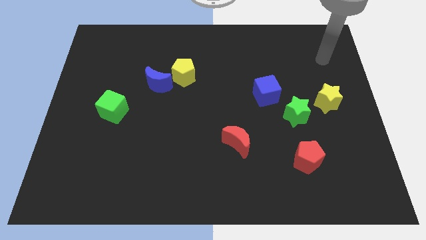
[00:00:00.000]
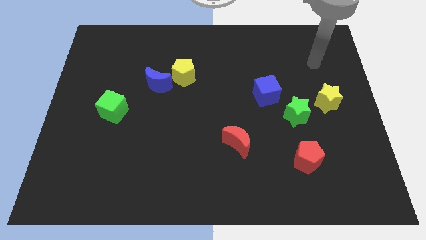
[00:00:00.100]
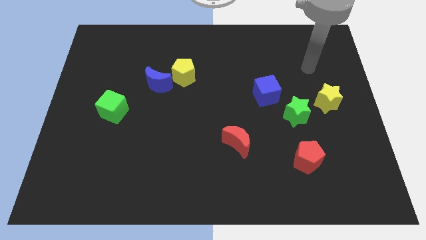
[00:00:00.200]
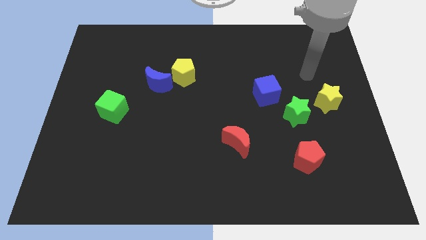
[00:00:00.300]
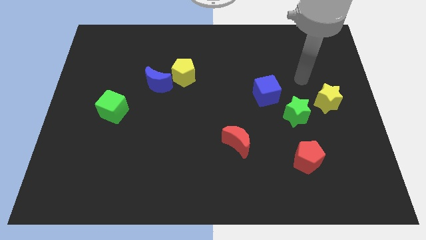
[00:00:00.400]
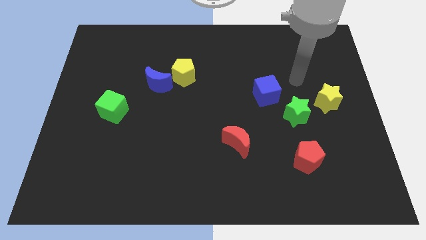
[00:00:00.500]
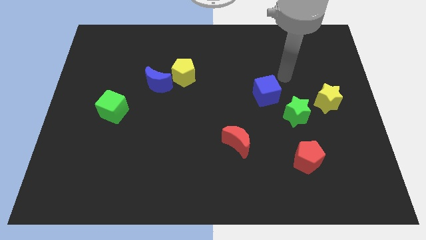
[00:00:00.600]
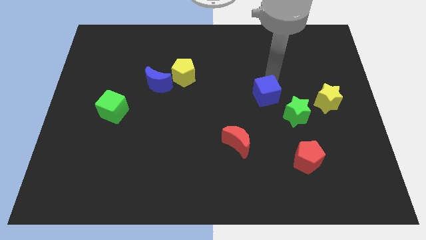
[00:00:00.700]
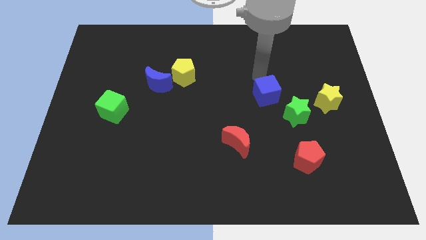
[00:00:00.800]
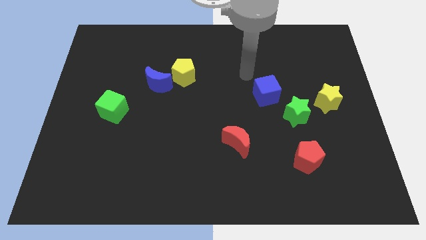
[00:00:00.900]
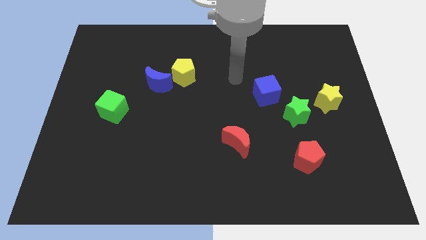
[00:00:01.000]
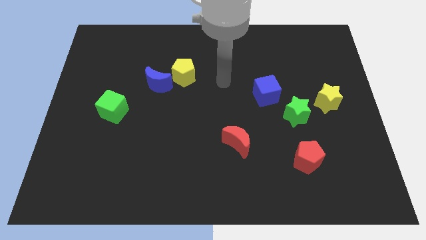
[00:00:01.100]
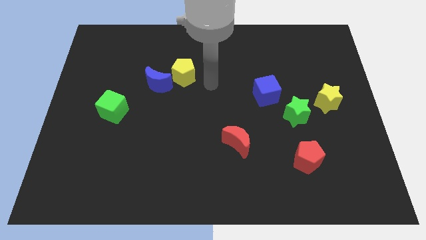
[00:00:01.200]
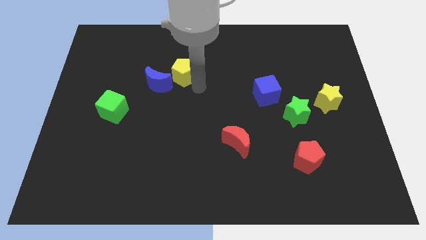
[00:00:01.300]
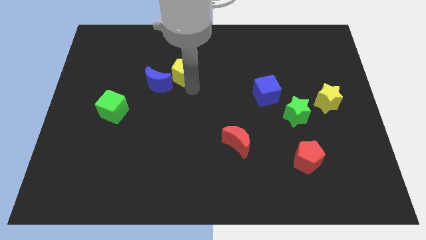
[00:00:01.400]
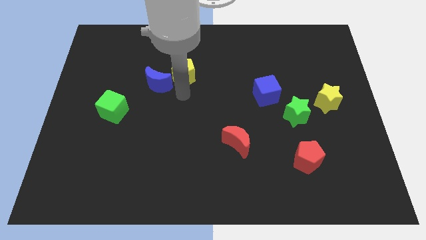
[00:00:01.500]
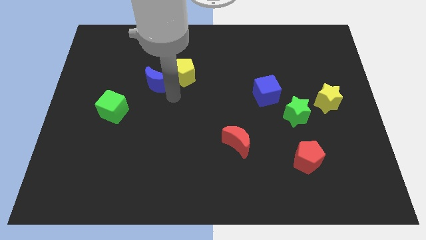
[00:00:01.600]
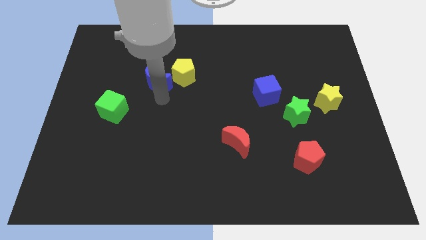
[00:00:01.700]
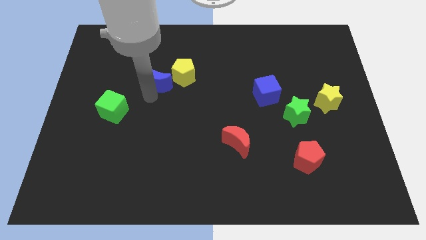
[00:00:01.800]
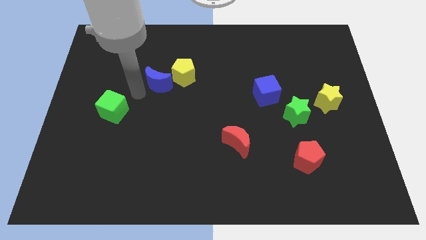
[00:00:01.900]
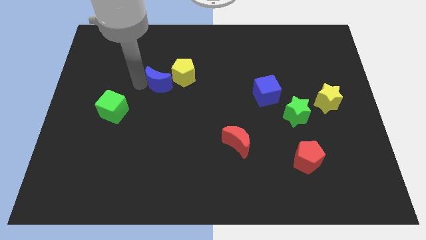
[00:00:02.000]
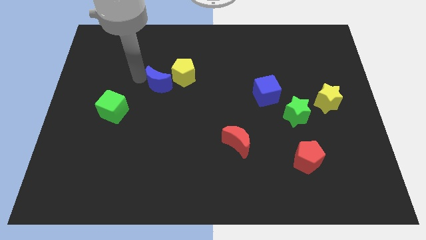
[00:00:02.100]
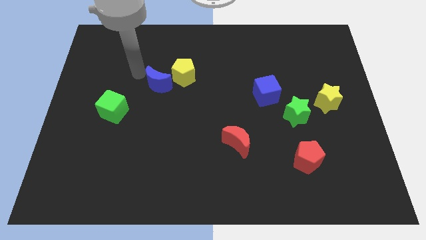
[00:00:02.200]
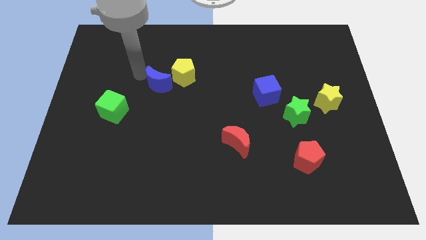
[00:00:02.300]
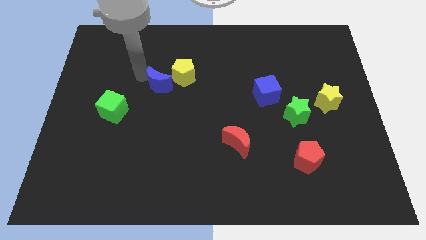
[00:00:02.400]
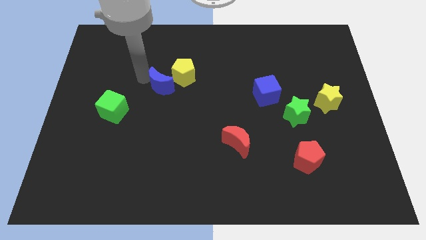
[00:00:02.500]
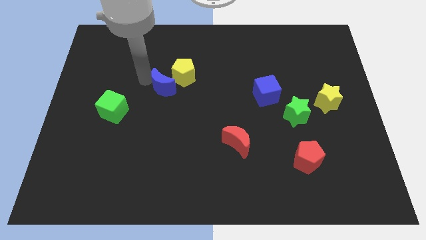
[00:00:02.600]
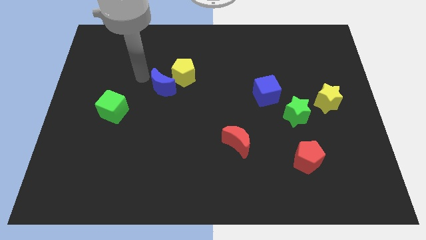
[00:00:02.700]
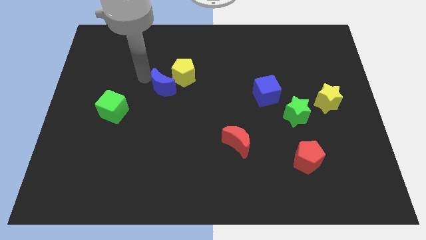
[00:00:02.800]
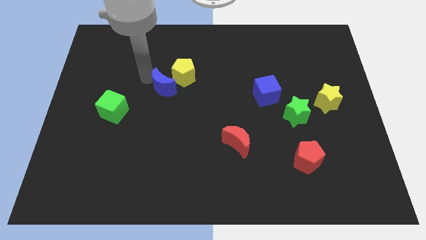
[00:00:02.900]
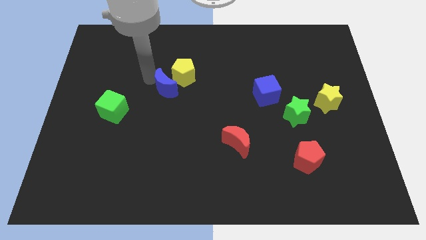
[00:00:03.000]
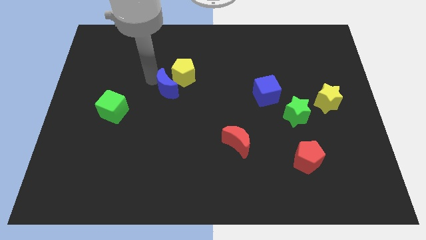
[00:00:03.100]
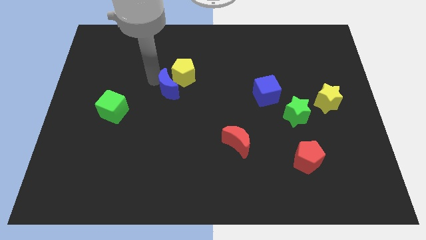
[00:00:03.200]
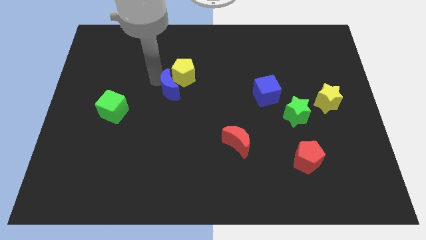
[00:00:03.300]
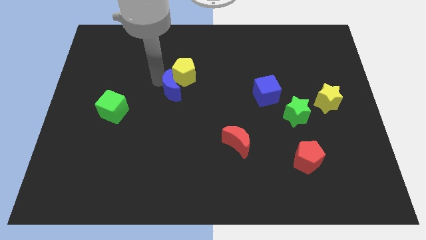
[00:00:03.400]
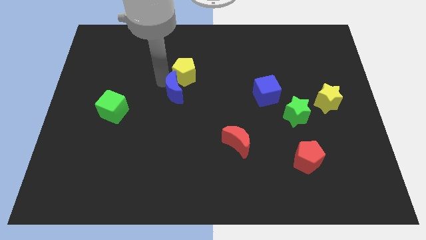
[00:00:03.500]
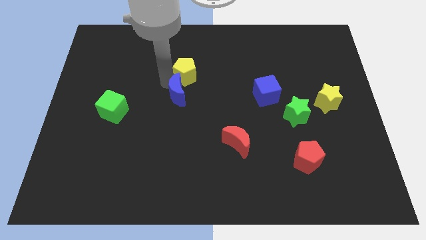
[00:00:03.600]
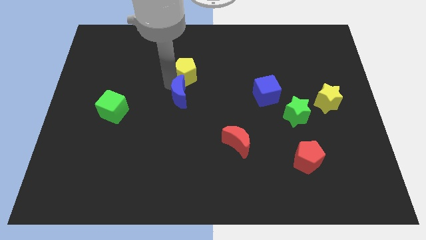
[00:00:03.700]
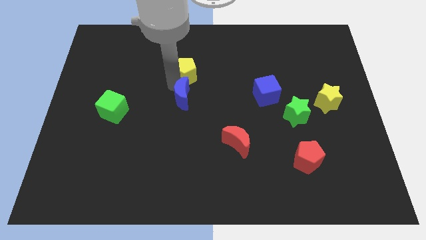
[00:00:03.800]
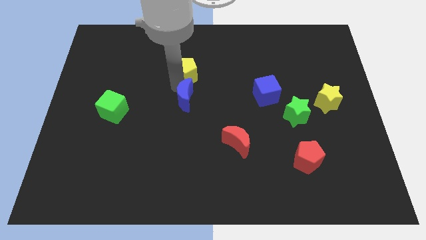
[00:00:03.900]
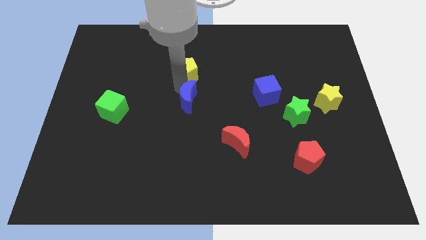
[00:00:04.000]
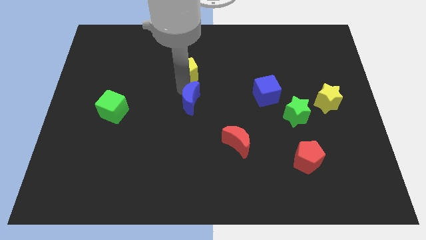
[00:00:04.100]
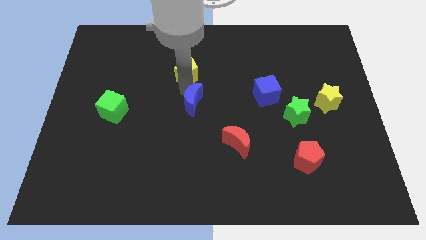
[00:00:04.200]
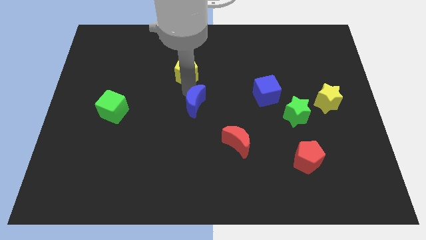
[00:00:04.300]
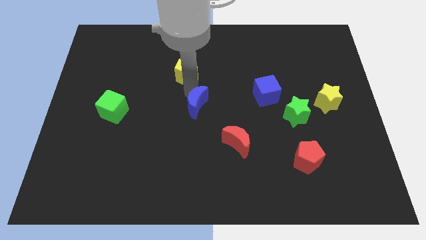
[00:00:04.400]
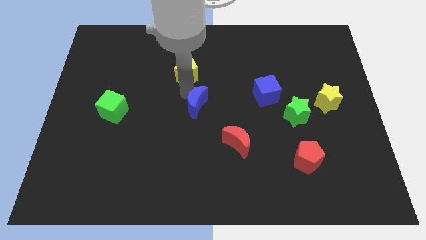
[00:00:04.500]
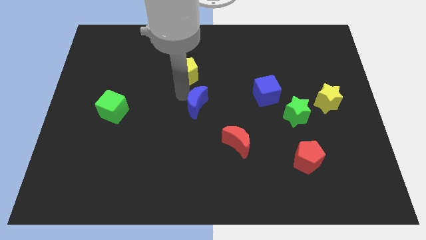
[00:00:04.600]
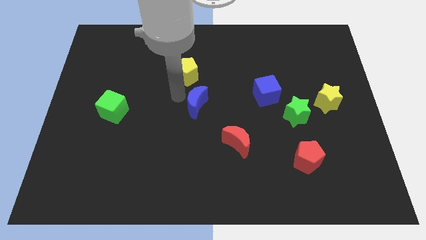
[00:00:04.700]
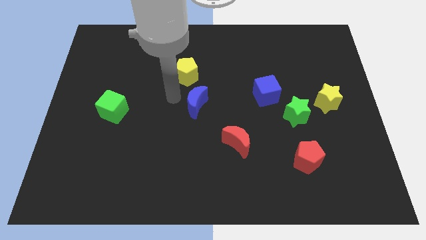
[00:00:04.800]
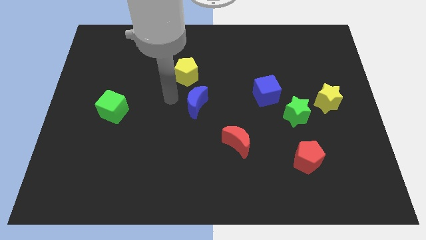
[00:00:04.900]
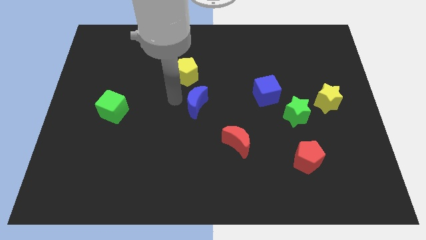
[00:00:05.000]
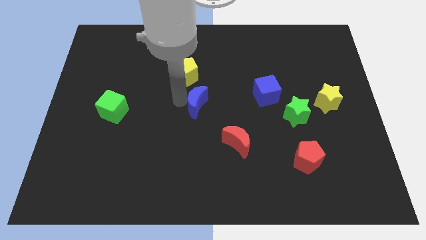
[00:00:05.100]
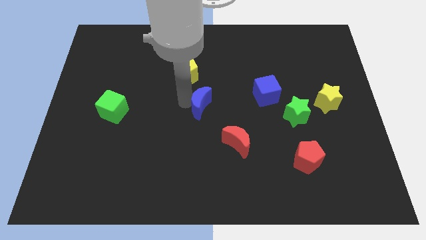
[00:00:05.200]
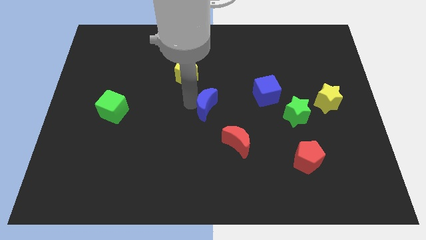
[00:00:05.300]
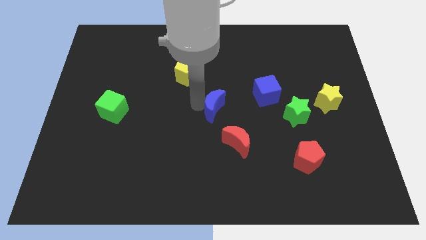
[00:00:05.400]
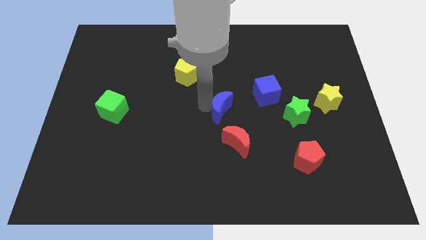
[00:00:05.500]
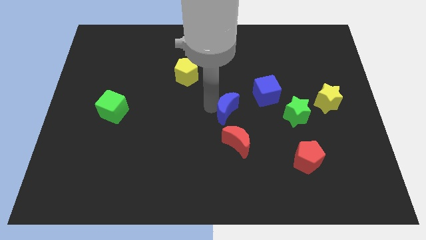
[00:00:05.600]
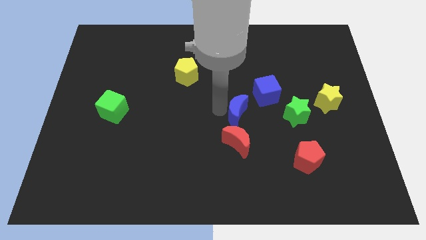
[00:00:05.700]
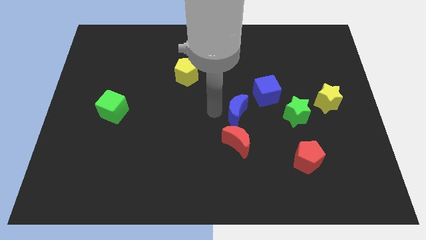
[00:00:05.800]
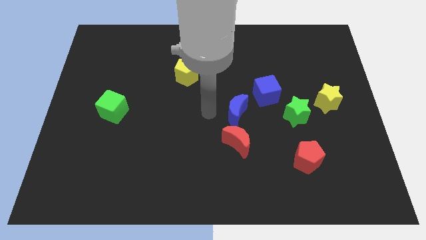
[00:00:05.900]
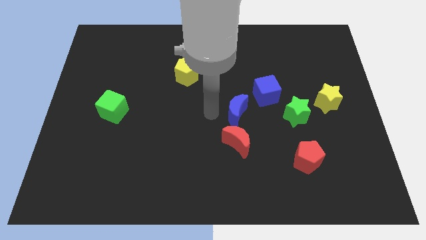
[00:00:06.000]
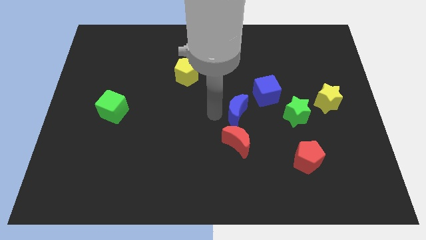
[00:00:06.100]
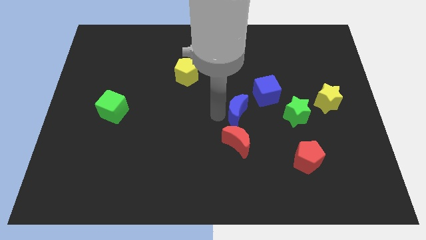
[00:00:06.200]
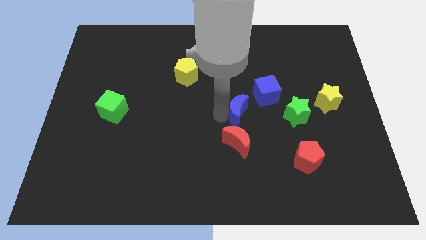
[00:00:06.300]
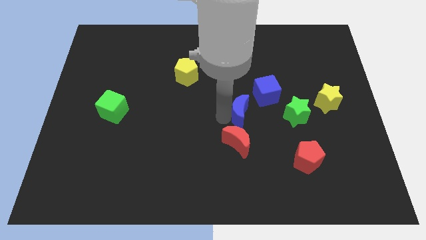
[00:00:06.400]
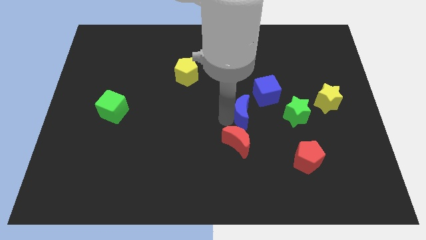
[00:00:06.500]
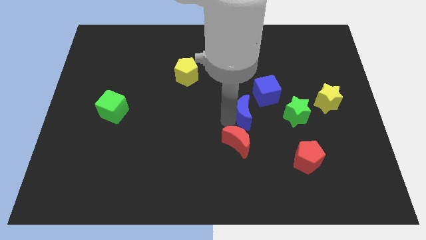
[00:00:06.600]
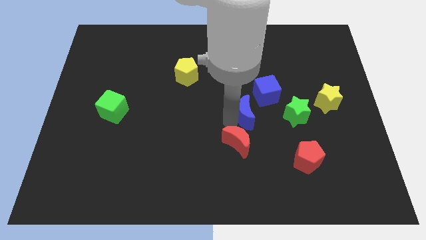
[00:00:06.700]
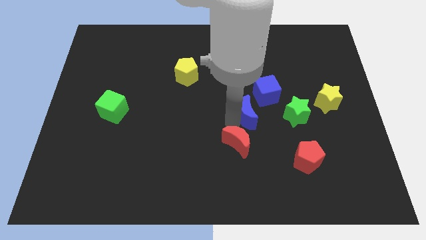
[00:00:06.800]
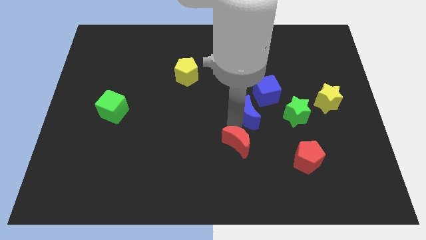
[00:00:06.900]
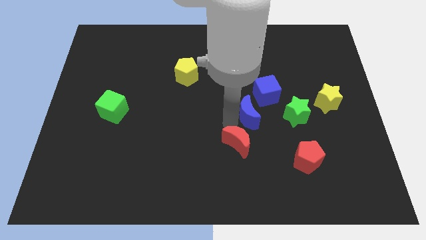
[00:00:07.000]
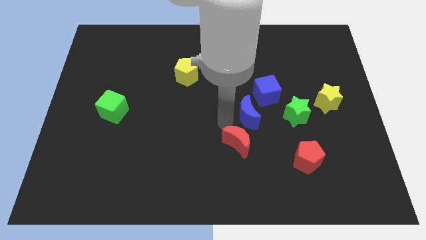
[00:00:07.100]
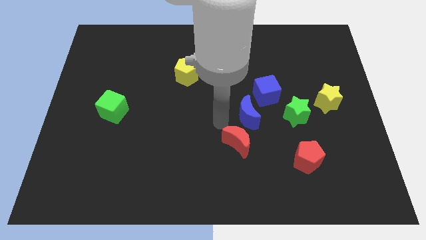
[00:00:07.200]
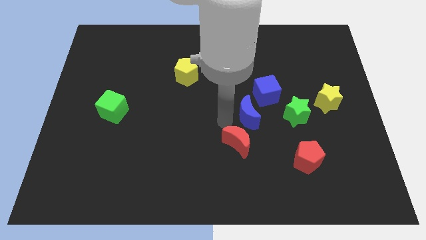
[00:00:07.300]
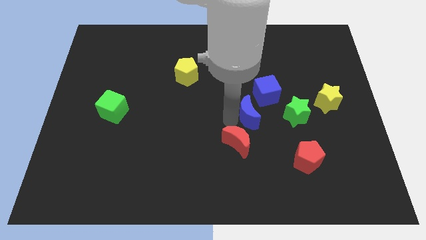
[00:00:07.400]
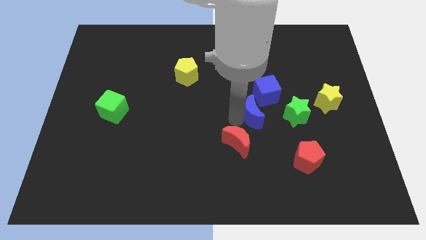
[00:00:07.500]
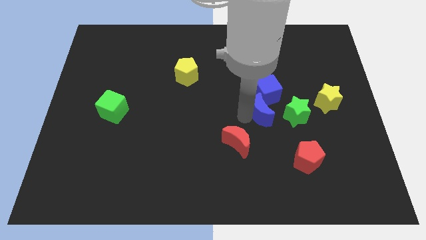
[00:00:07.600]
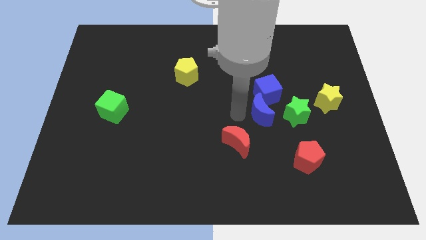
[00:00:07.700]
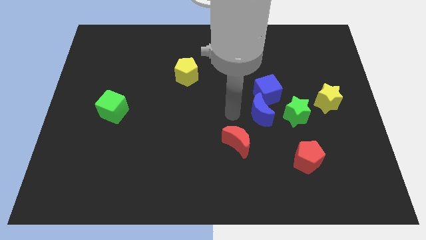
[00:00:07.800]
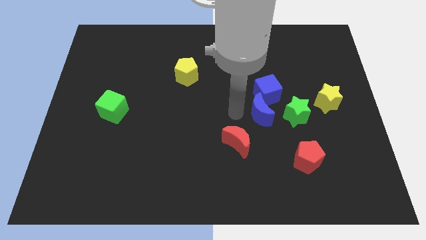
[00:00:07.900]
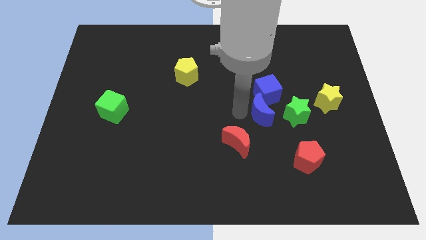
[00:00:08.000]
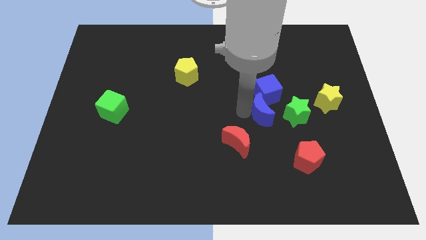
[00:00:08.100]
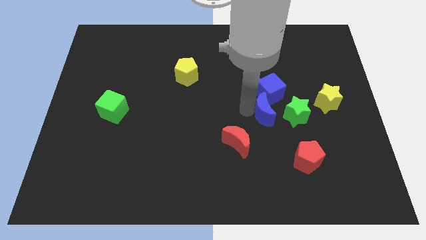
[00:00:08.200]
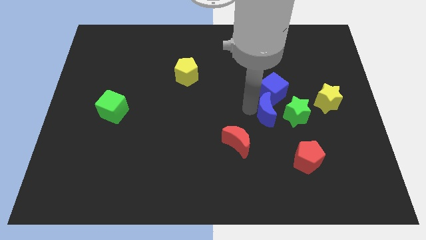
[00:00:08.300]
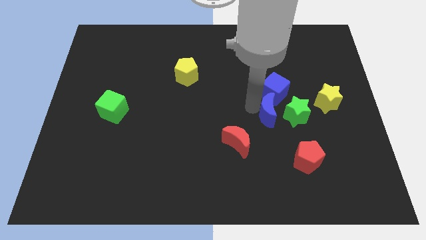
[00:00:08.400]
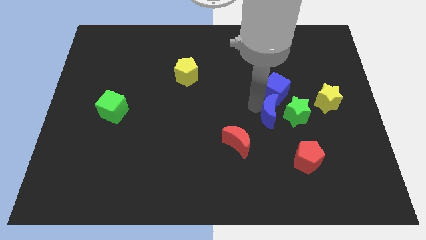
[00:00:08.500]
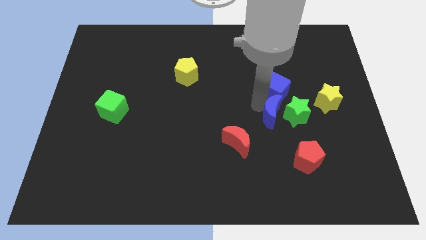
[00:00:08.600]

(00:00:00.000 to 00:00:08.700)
push the blue moon towards the green star
